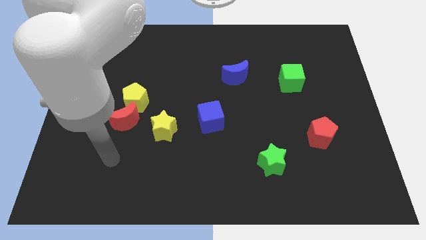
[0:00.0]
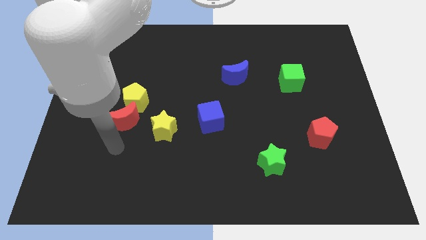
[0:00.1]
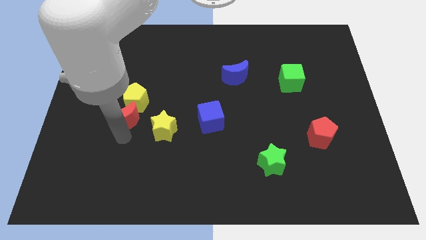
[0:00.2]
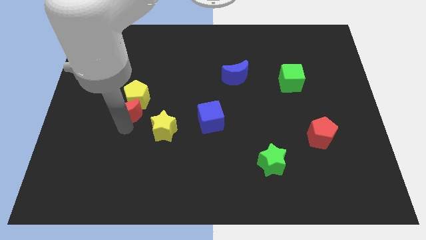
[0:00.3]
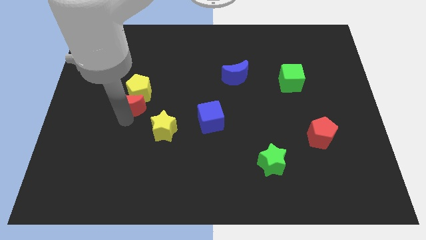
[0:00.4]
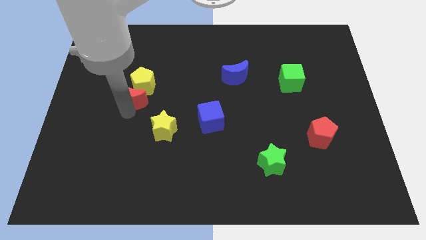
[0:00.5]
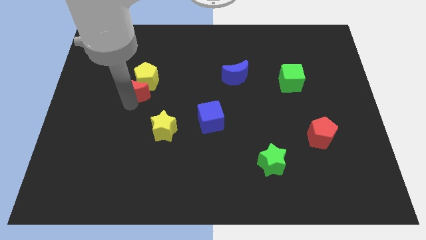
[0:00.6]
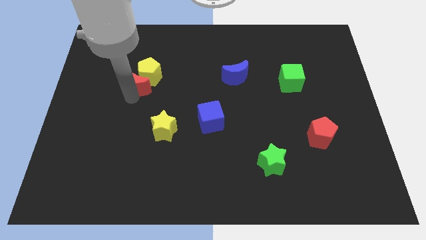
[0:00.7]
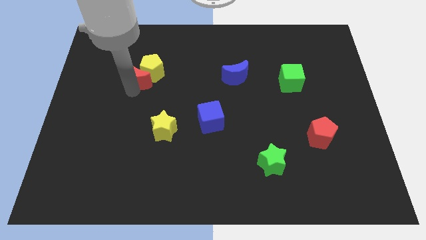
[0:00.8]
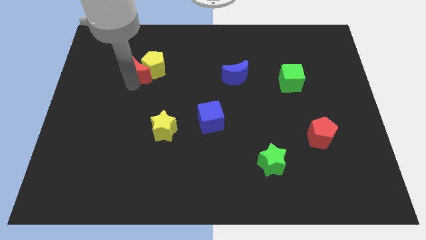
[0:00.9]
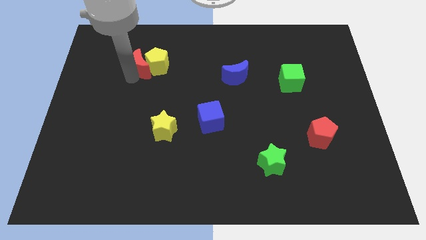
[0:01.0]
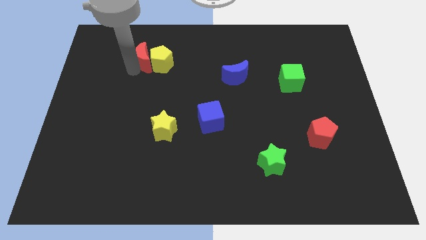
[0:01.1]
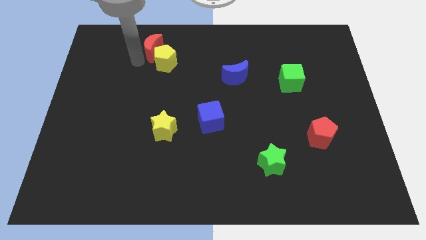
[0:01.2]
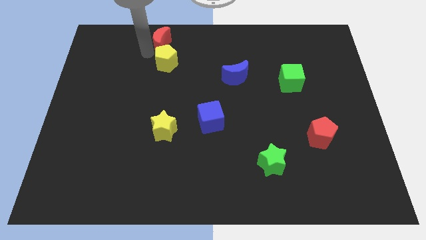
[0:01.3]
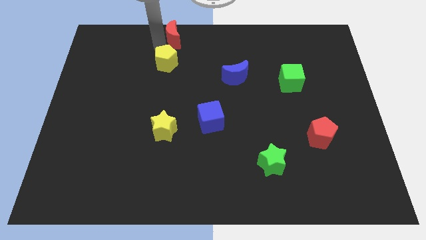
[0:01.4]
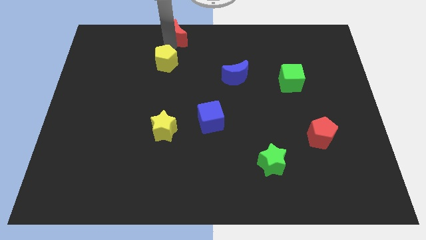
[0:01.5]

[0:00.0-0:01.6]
separate the yellow pentagon from the red moon

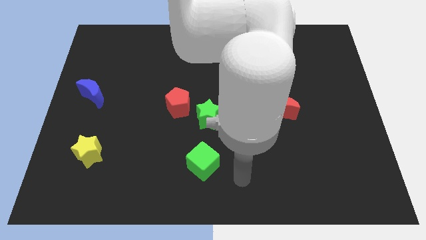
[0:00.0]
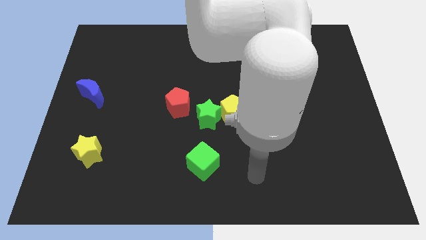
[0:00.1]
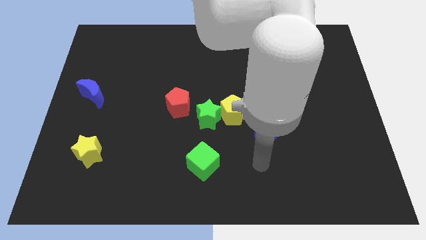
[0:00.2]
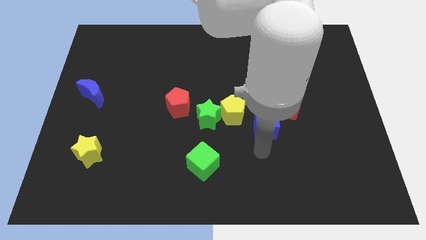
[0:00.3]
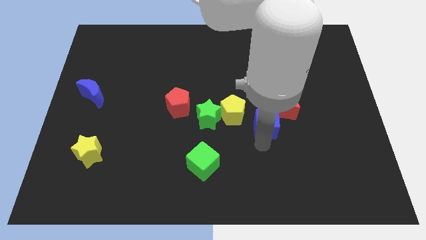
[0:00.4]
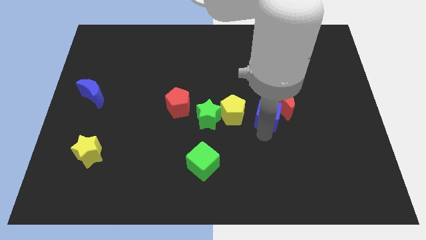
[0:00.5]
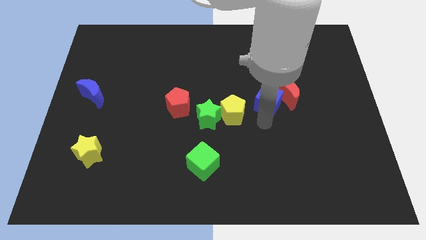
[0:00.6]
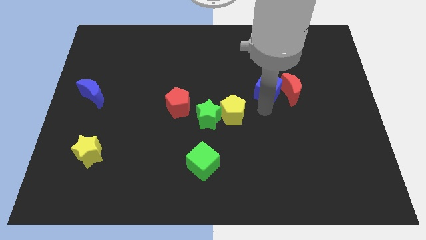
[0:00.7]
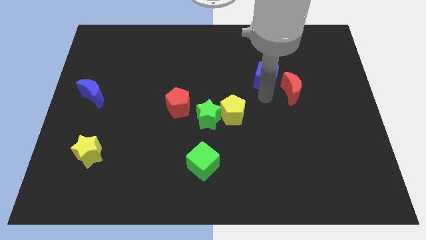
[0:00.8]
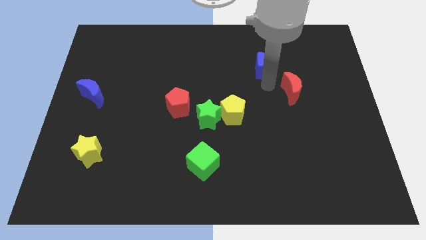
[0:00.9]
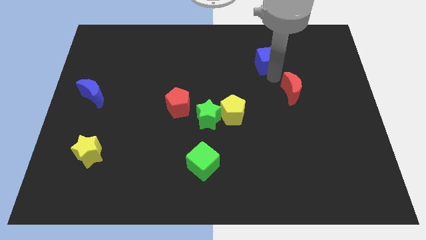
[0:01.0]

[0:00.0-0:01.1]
separate the red moon from the blue cube

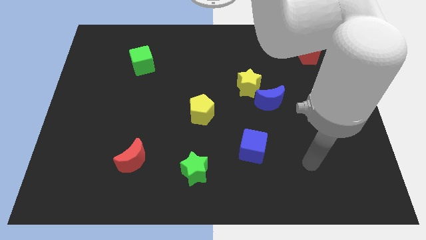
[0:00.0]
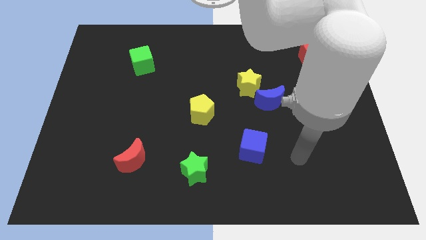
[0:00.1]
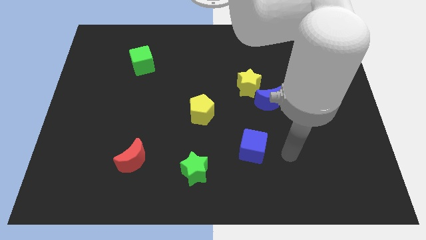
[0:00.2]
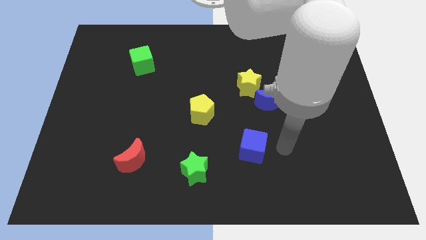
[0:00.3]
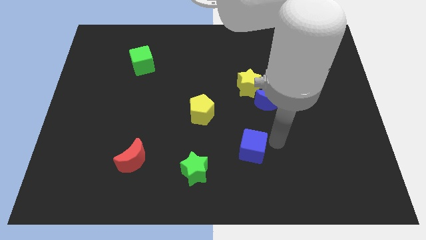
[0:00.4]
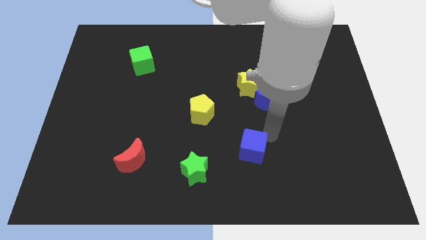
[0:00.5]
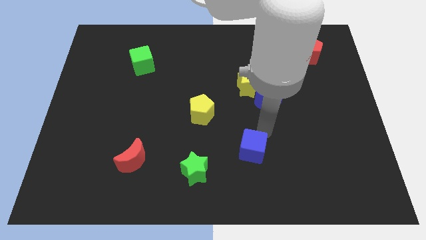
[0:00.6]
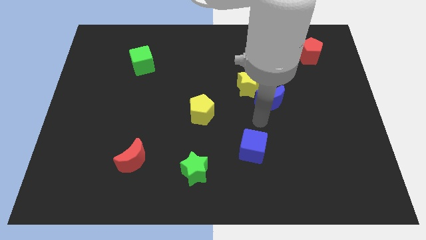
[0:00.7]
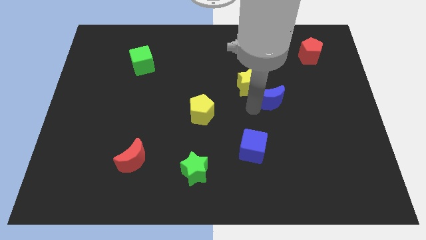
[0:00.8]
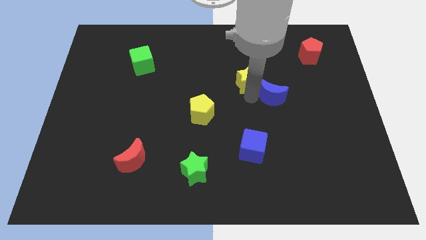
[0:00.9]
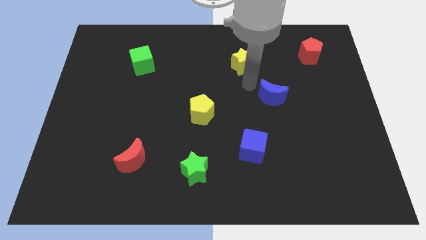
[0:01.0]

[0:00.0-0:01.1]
move the blue moon away from the yellow star

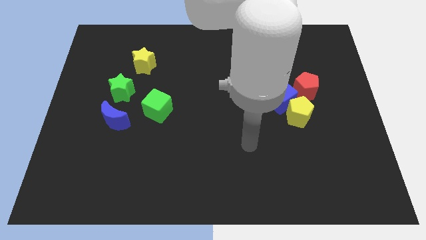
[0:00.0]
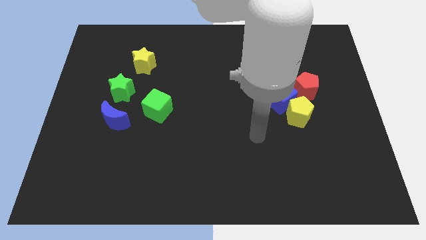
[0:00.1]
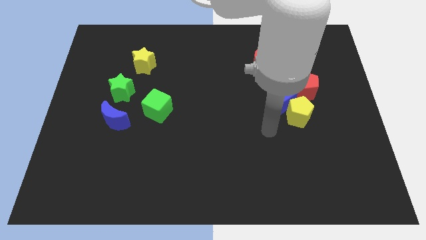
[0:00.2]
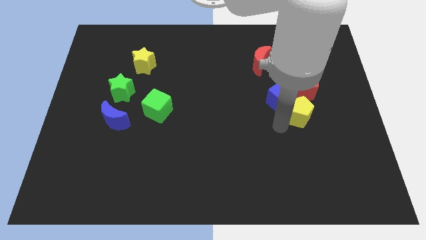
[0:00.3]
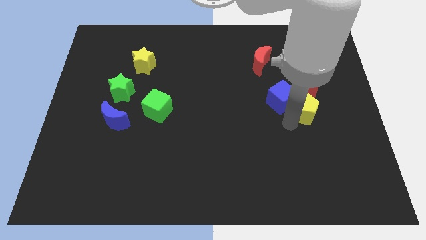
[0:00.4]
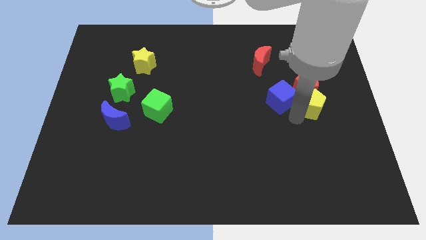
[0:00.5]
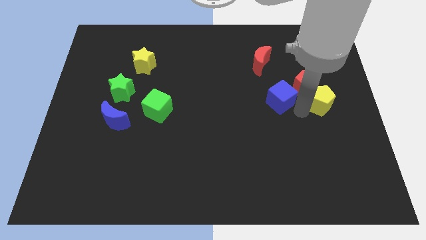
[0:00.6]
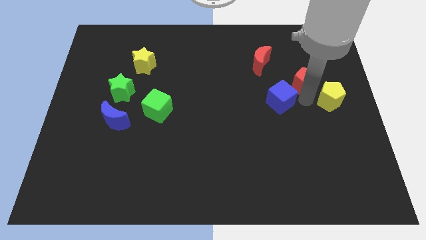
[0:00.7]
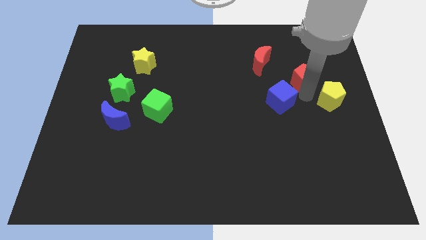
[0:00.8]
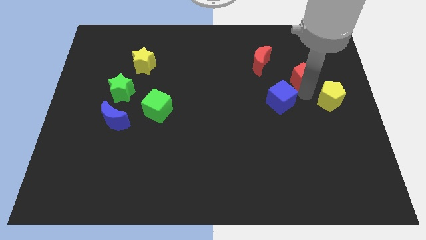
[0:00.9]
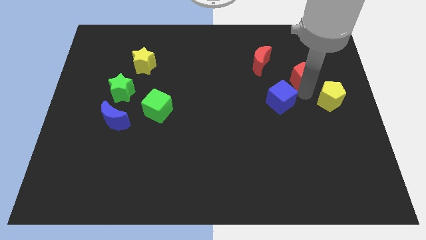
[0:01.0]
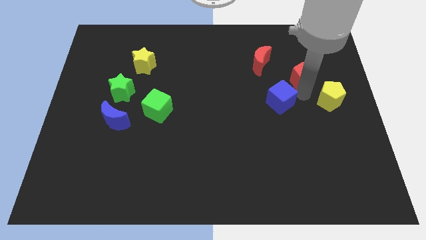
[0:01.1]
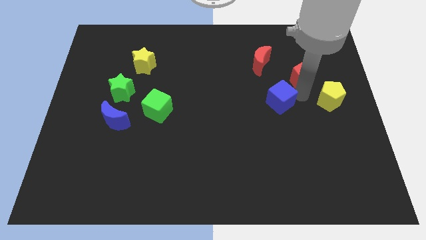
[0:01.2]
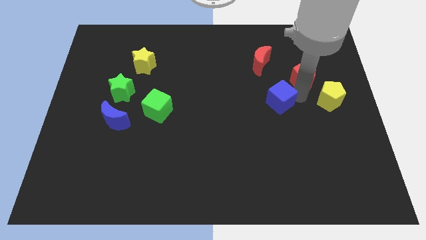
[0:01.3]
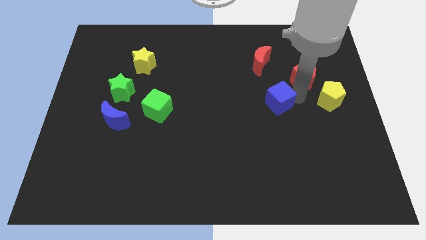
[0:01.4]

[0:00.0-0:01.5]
separate the blue cube from the yellow pentagon and red pentagon

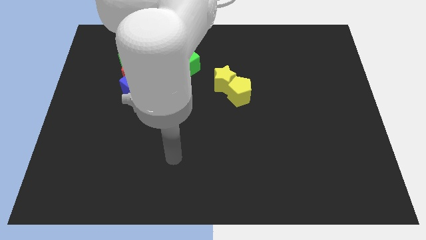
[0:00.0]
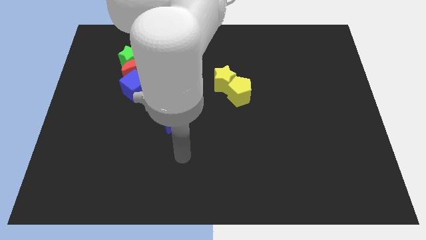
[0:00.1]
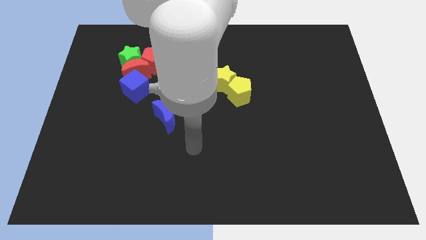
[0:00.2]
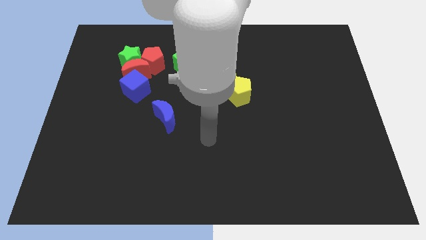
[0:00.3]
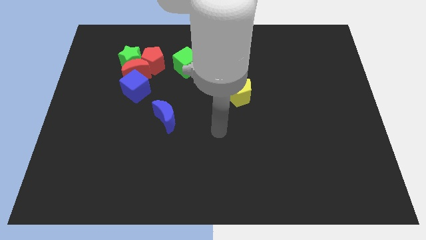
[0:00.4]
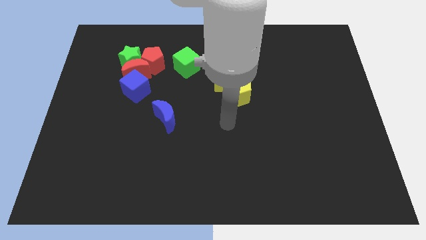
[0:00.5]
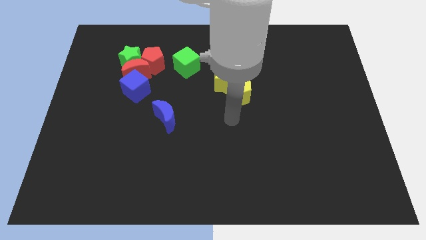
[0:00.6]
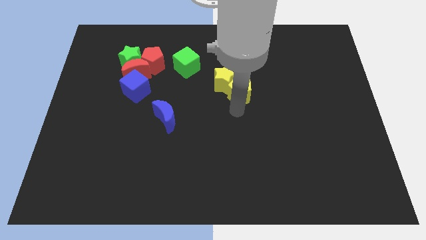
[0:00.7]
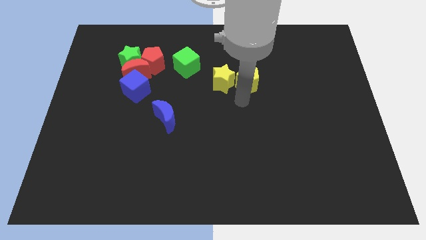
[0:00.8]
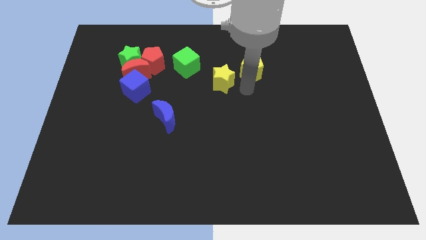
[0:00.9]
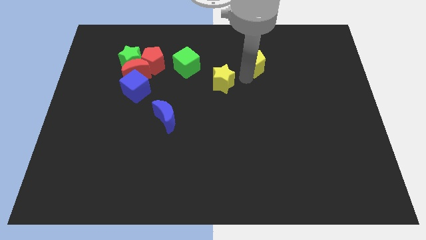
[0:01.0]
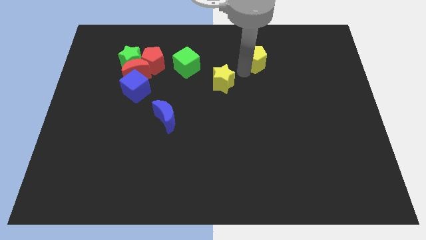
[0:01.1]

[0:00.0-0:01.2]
move the yellow star away from the yellow pentagon

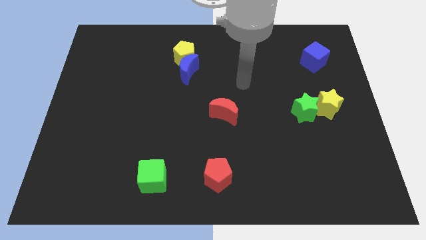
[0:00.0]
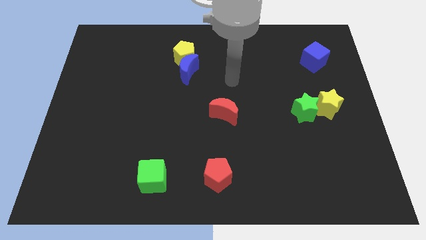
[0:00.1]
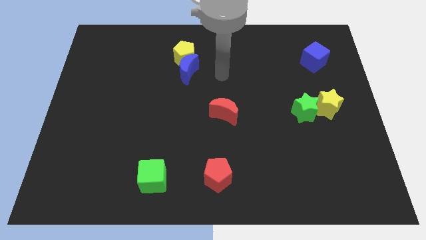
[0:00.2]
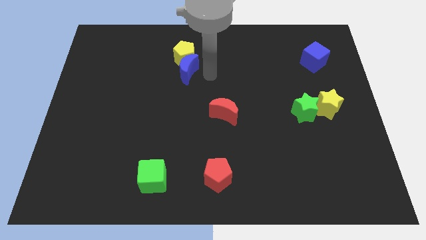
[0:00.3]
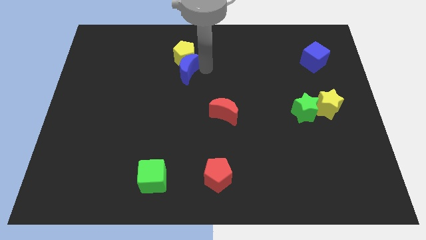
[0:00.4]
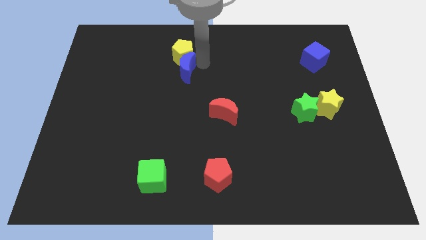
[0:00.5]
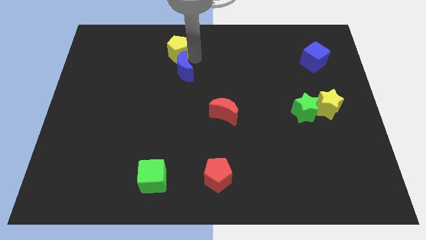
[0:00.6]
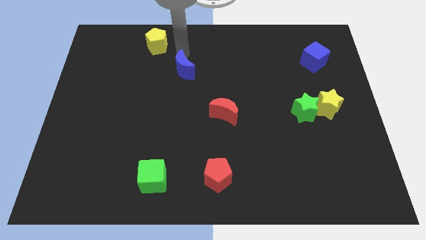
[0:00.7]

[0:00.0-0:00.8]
separate the blue moon from the yellow pentagon

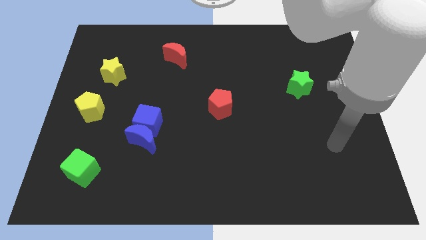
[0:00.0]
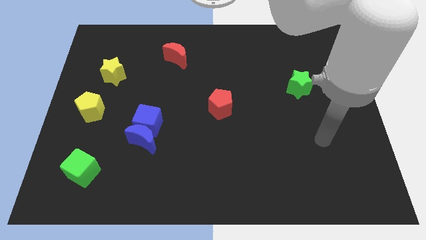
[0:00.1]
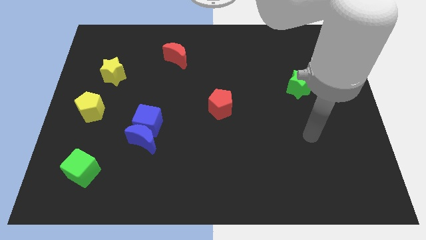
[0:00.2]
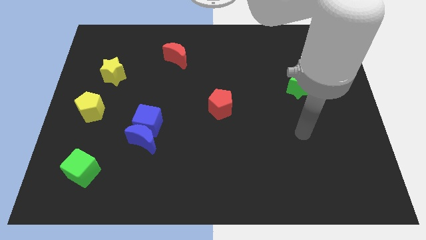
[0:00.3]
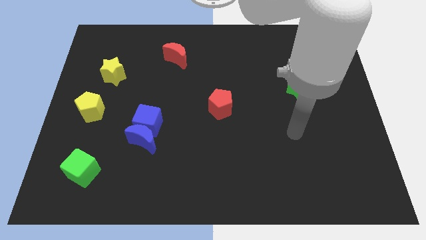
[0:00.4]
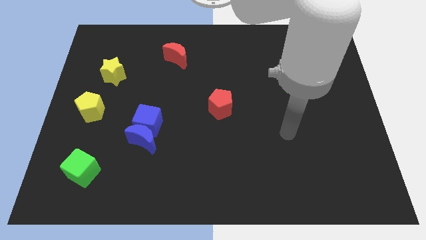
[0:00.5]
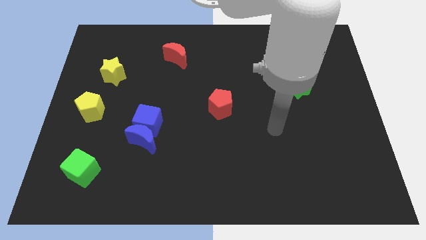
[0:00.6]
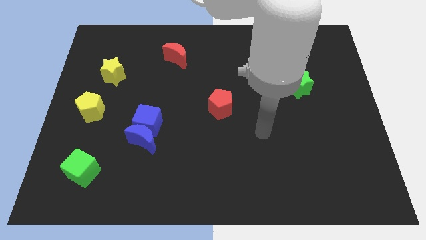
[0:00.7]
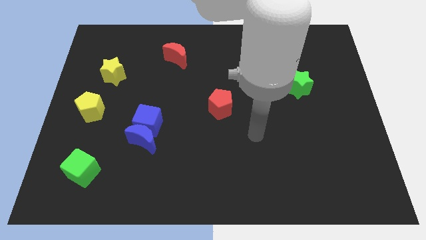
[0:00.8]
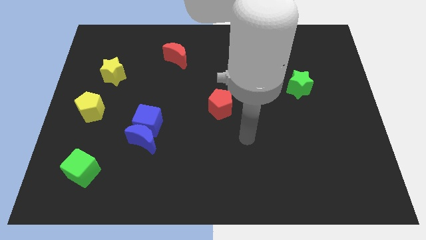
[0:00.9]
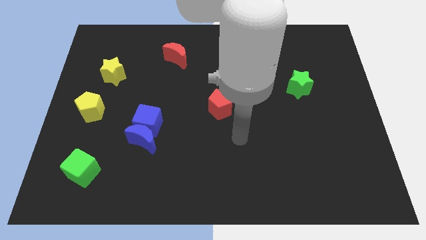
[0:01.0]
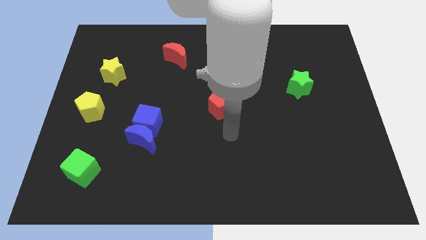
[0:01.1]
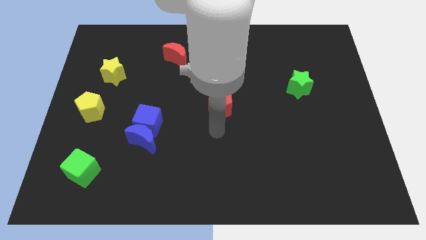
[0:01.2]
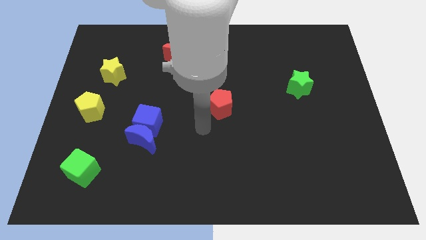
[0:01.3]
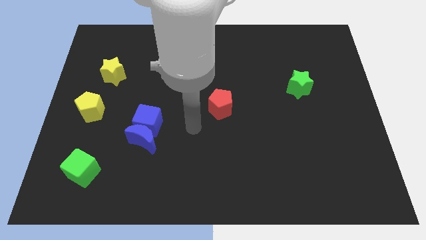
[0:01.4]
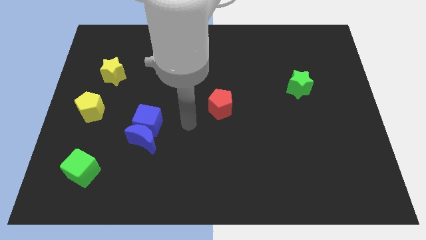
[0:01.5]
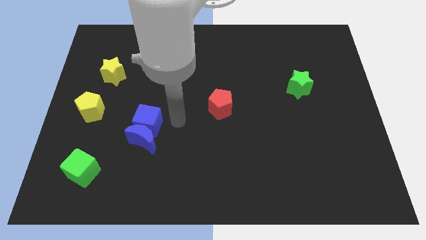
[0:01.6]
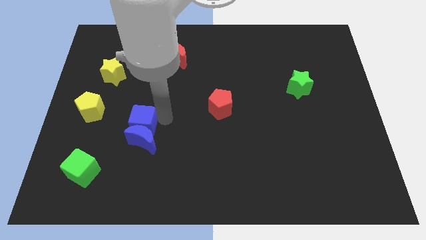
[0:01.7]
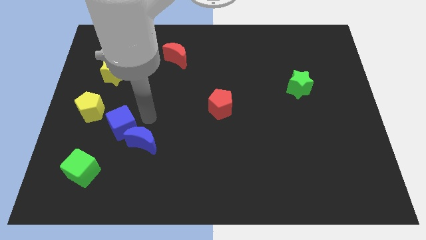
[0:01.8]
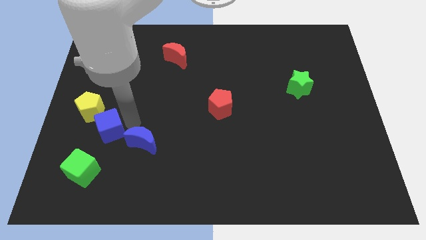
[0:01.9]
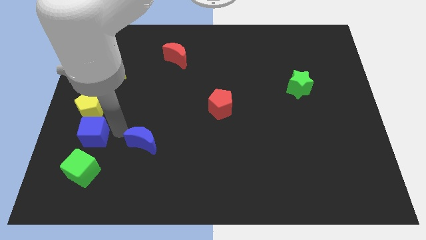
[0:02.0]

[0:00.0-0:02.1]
separate the blue moon from the blue cube

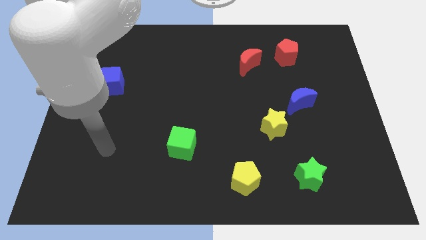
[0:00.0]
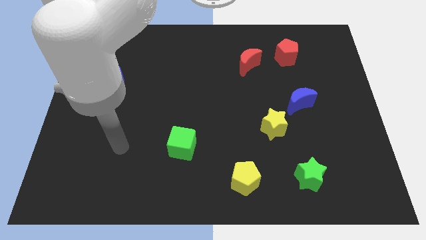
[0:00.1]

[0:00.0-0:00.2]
separate the blue moon from the yellow star
